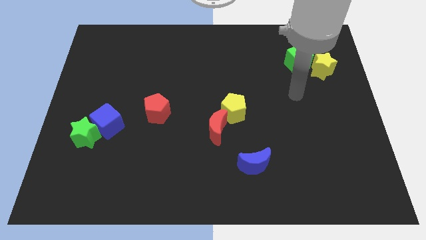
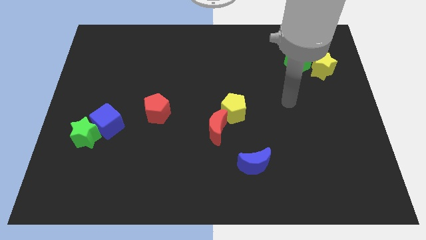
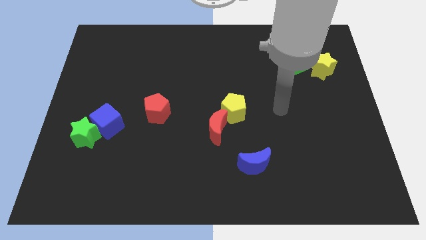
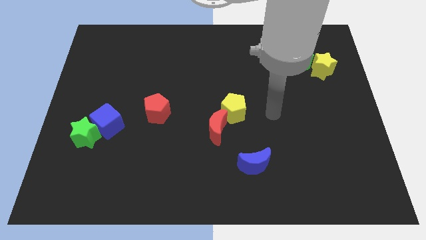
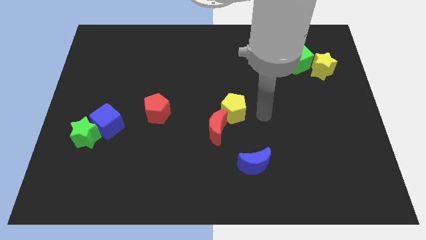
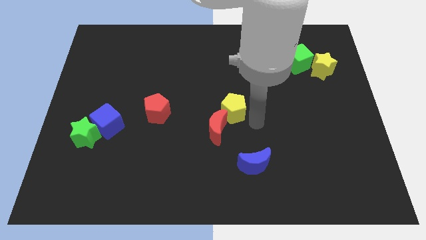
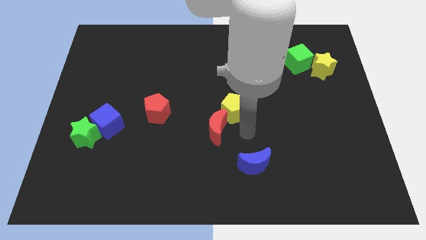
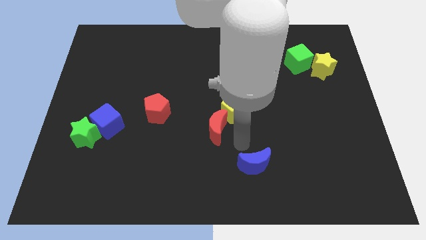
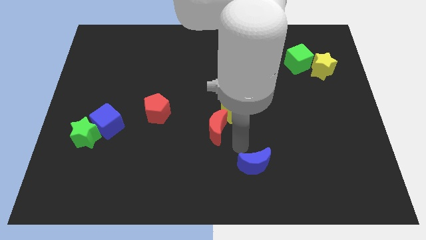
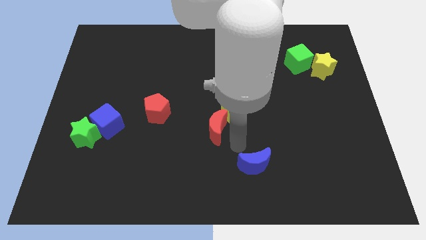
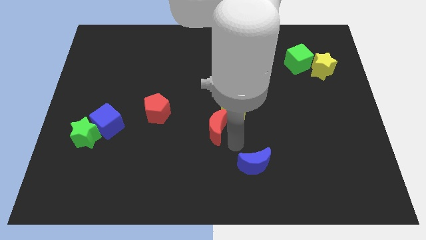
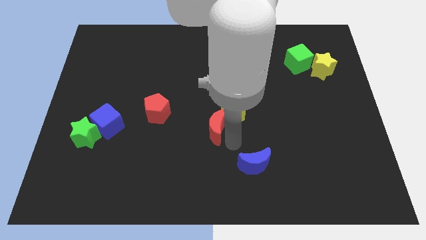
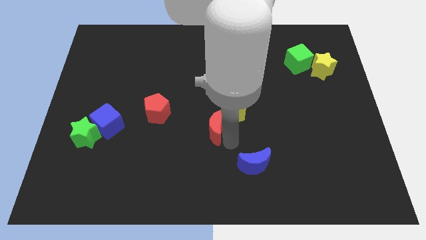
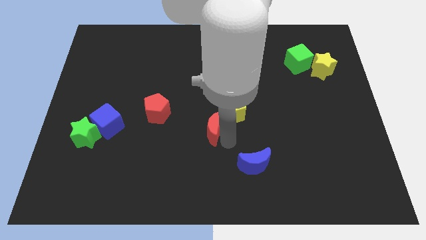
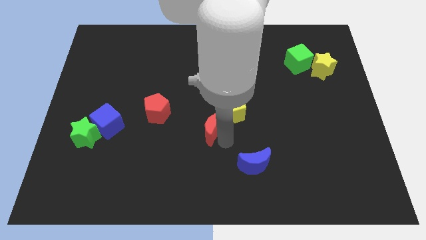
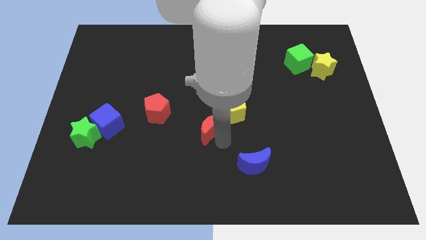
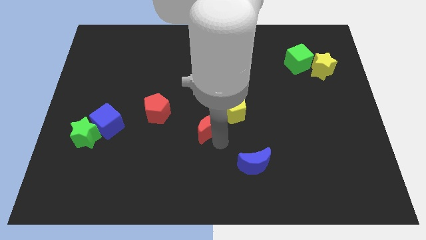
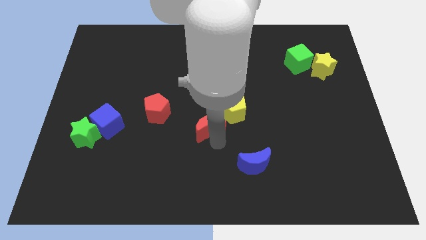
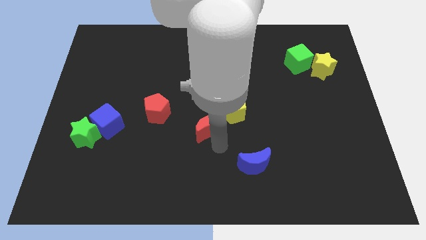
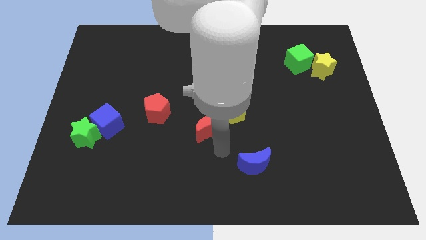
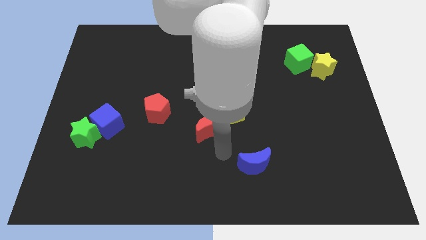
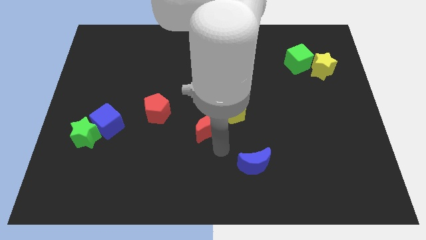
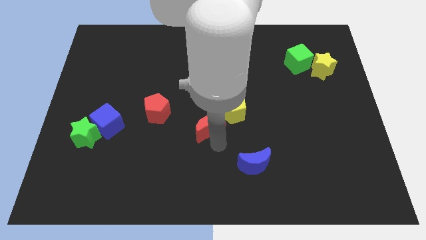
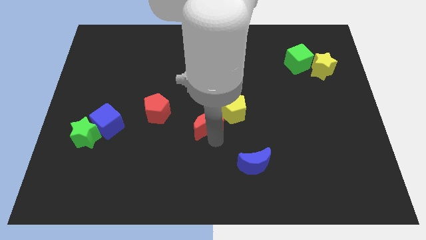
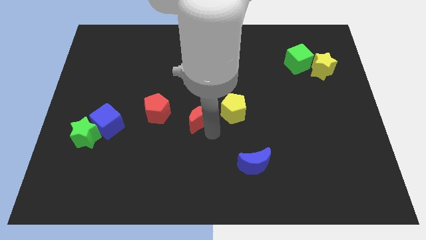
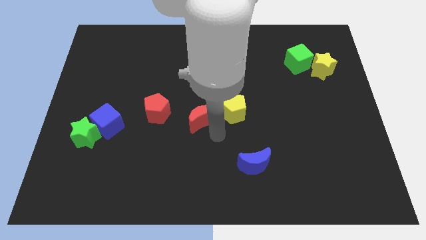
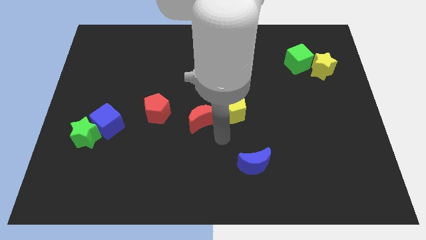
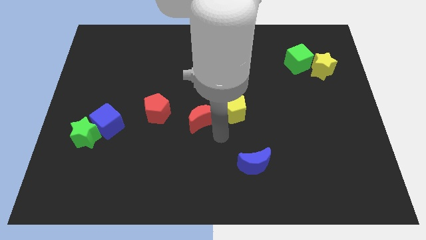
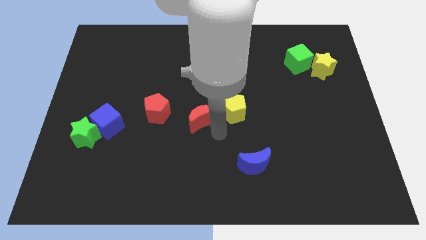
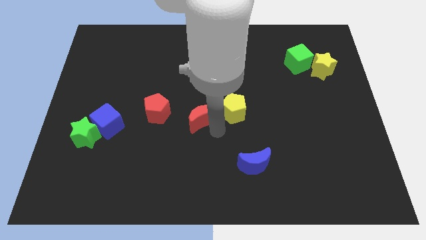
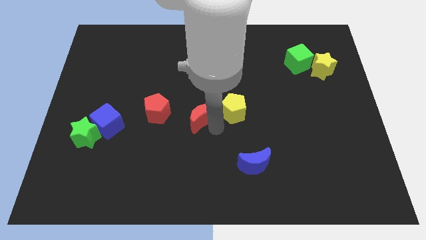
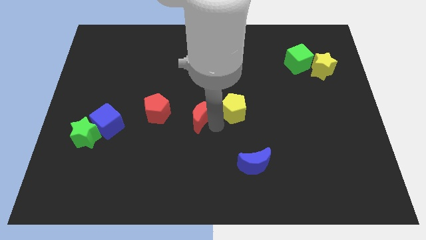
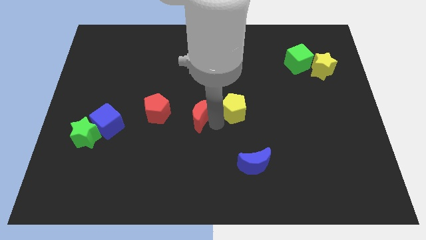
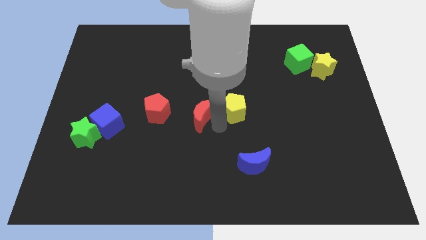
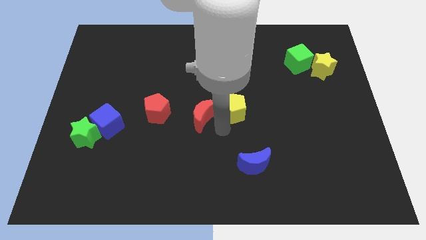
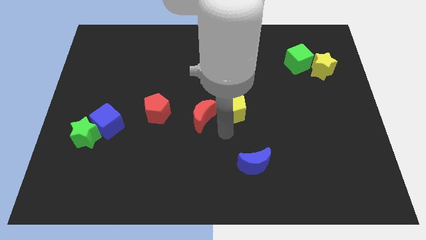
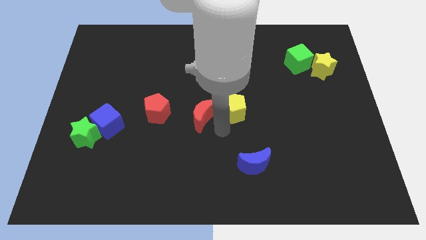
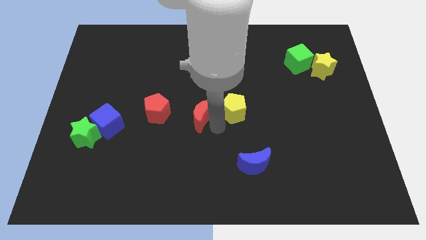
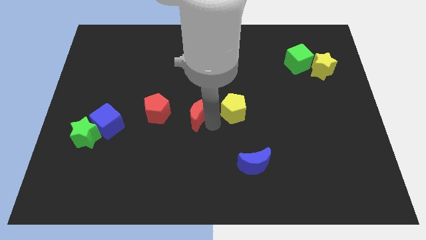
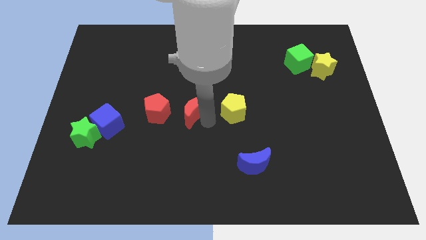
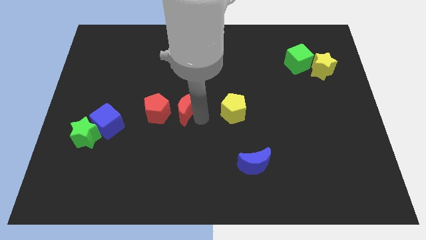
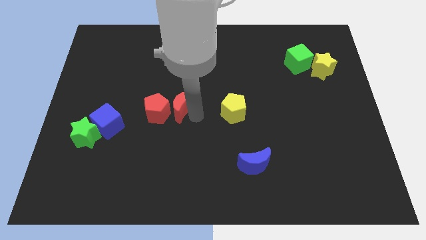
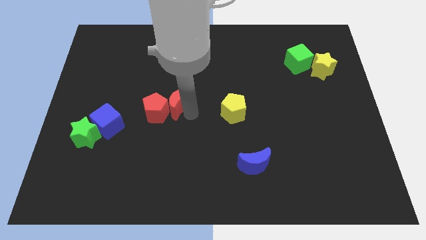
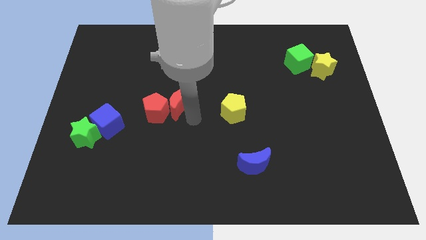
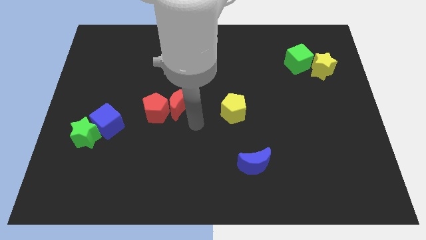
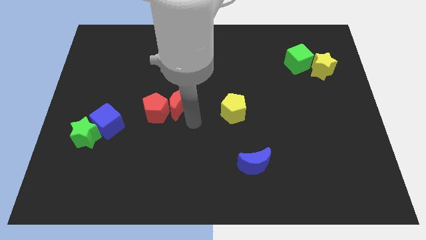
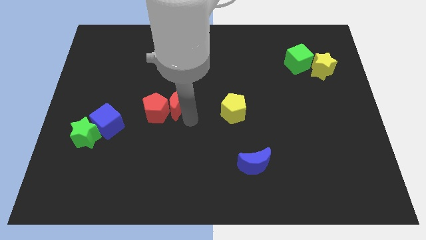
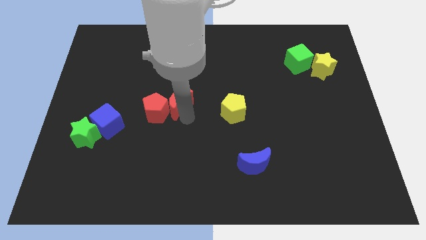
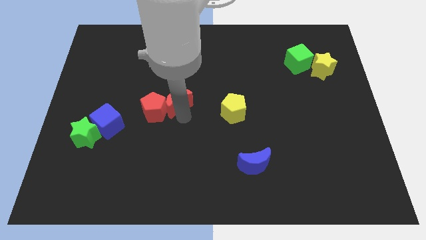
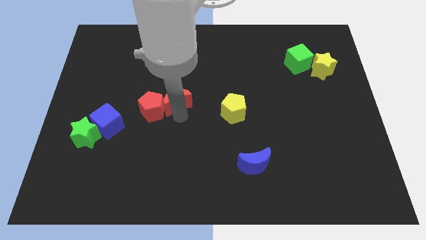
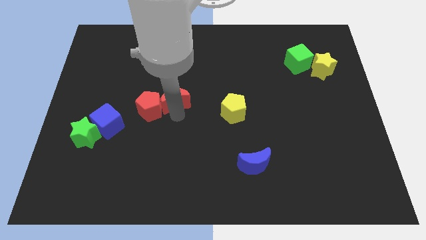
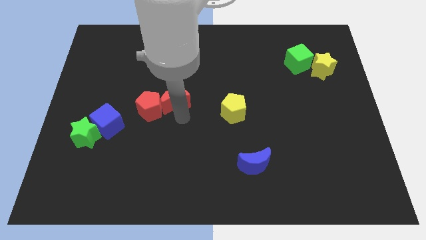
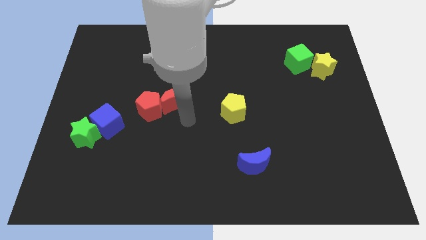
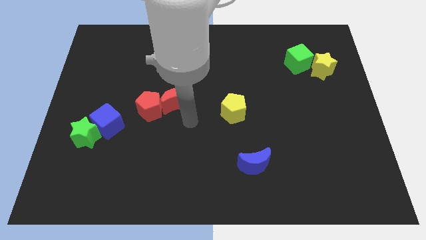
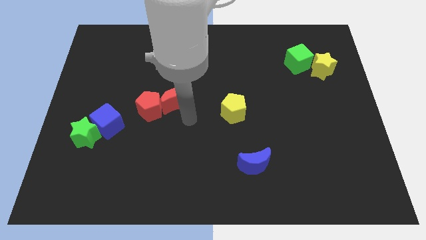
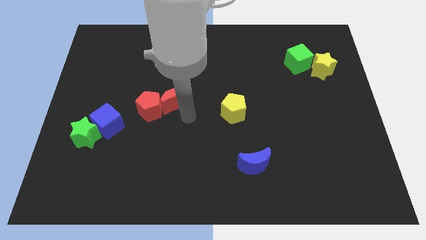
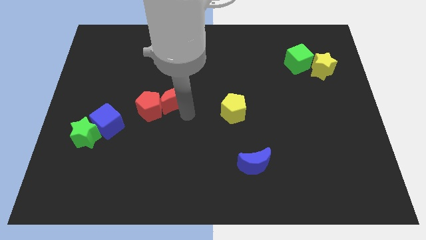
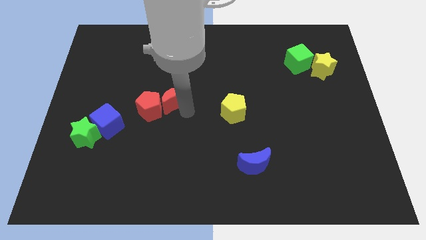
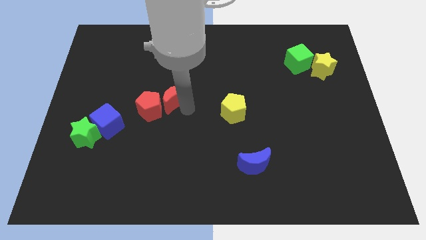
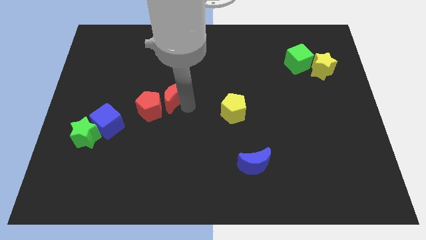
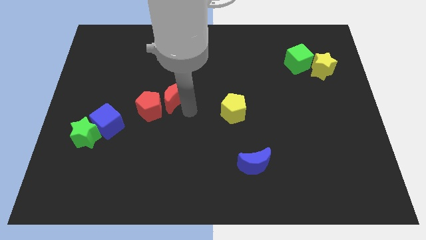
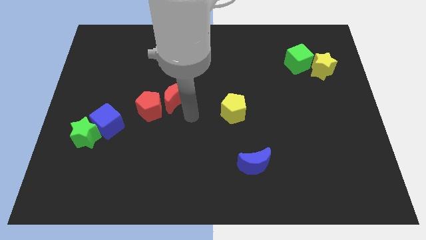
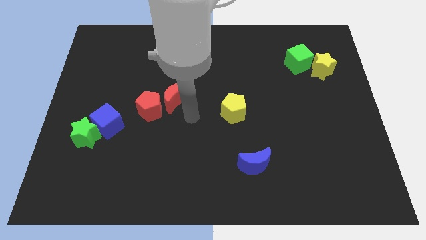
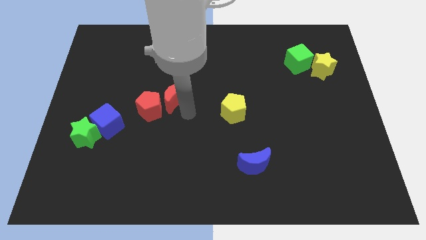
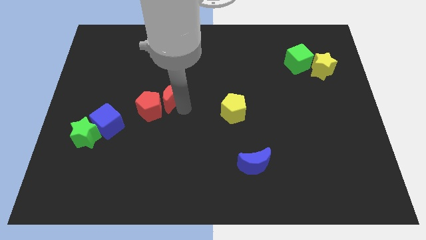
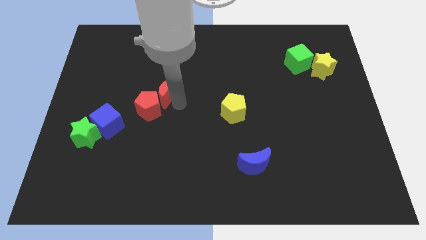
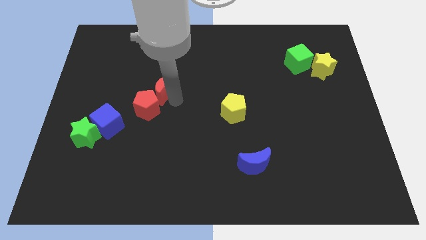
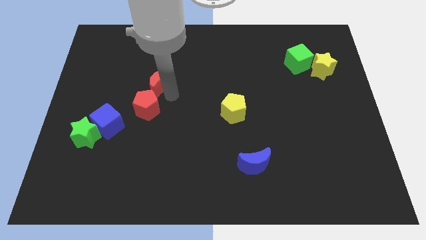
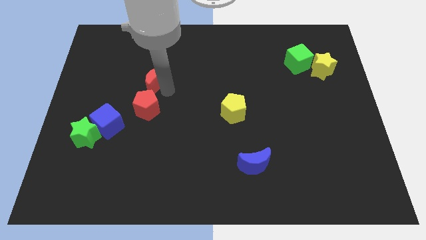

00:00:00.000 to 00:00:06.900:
slide the red moon upwards and left

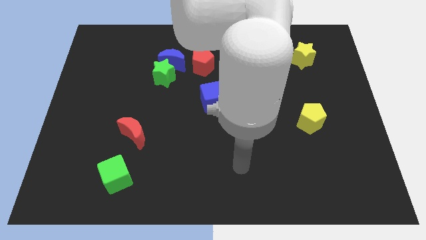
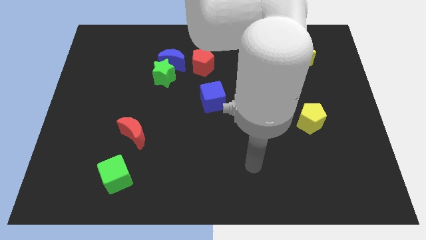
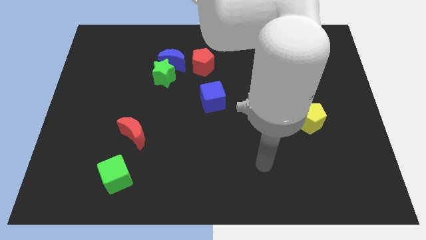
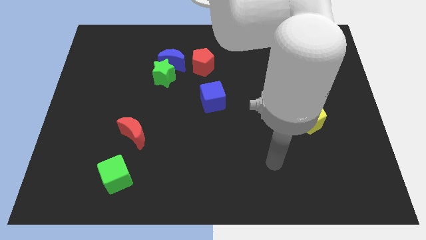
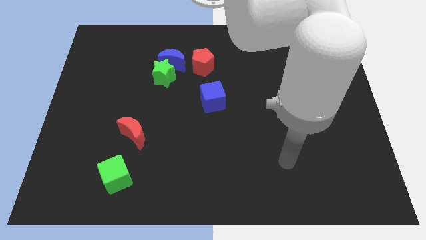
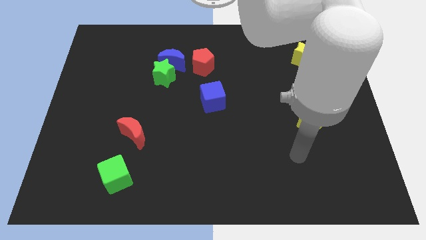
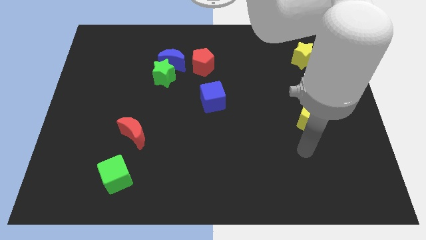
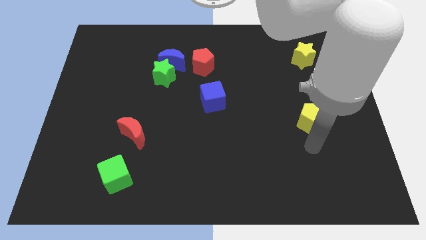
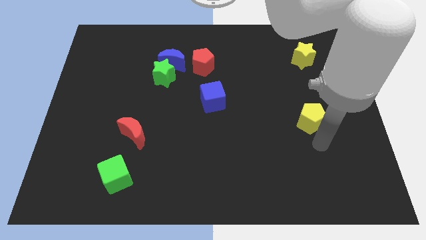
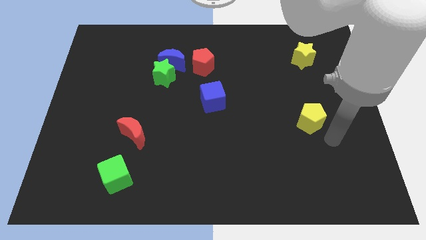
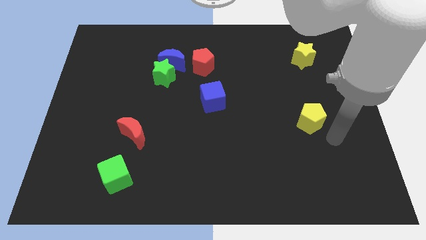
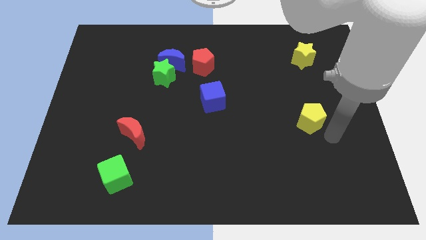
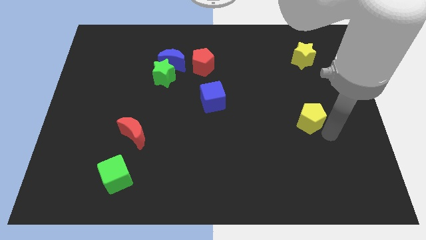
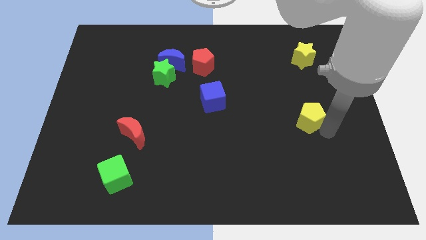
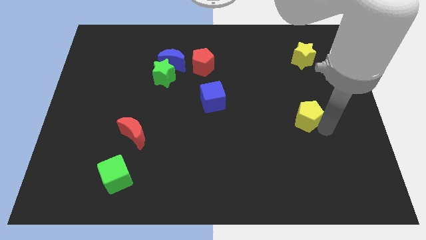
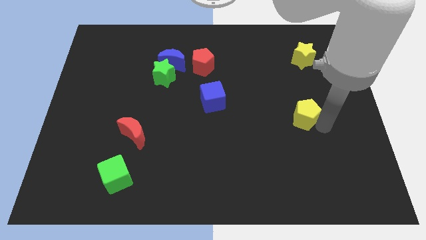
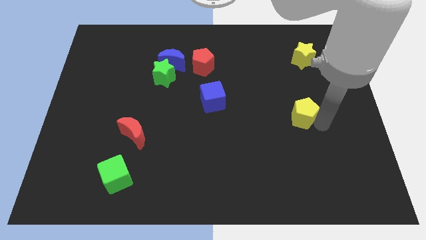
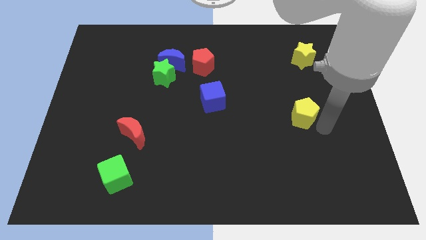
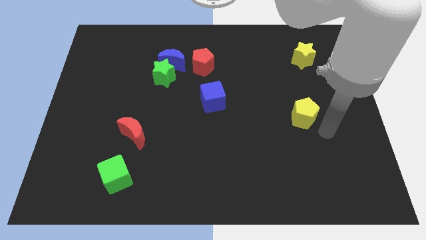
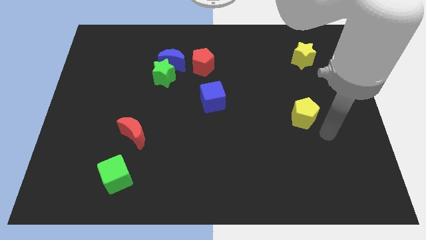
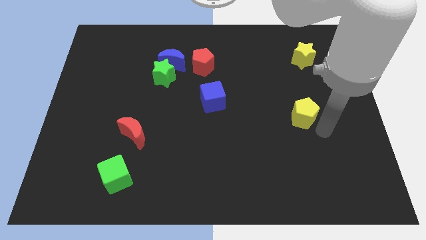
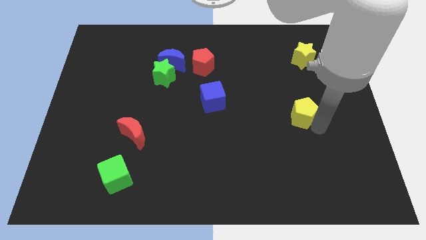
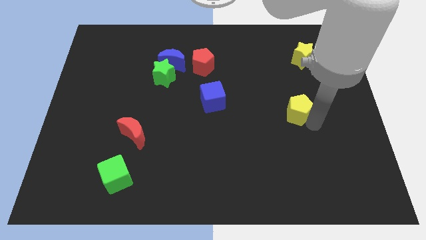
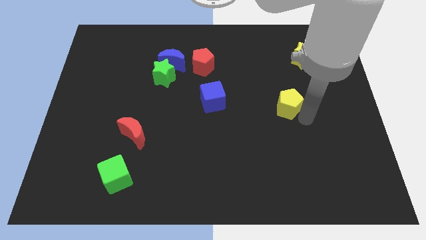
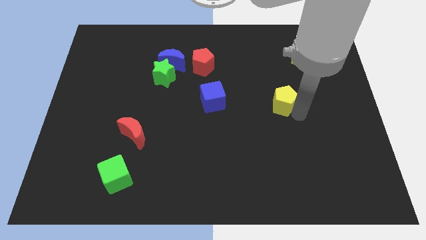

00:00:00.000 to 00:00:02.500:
slightly move the yellow pentagon upwards and left
